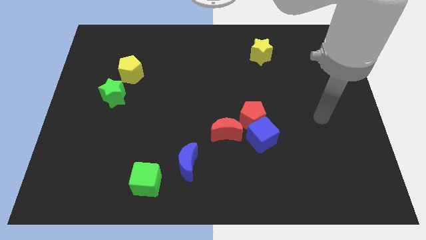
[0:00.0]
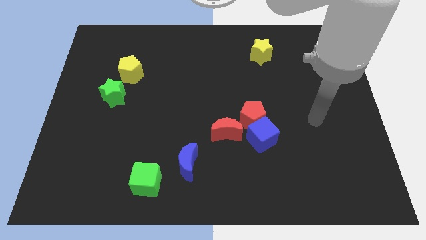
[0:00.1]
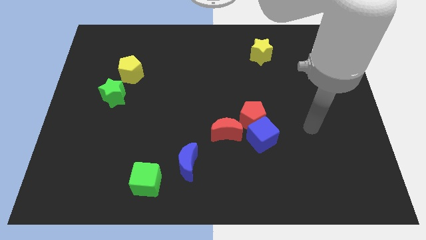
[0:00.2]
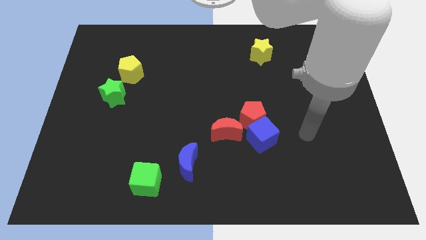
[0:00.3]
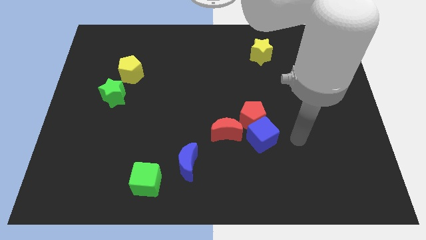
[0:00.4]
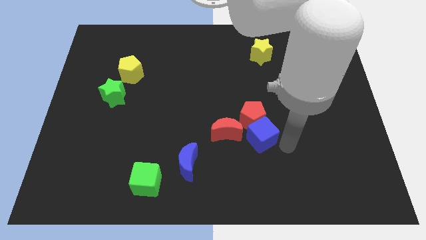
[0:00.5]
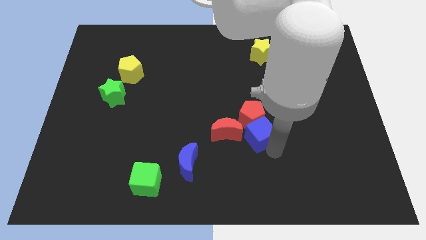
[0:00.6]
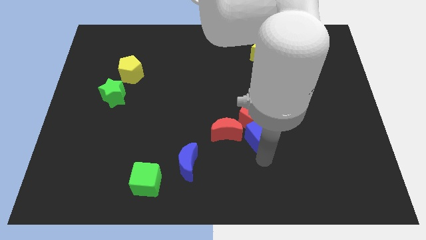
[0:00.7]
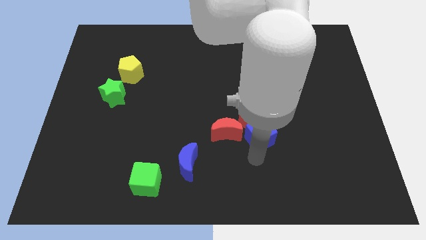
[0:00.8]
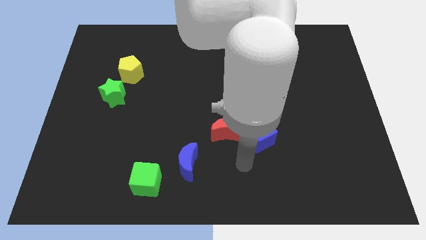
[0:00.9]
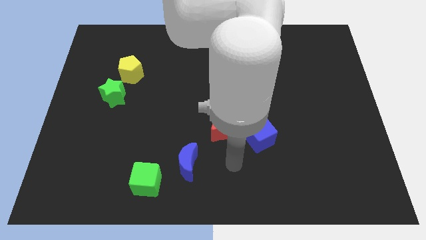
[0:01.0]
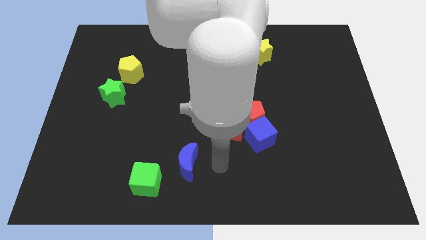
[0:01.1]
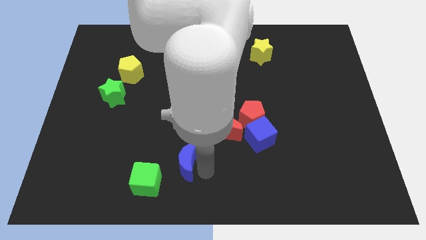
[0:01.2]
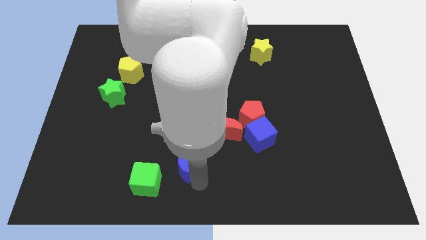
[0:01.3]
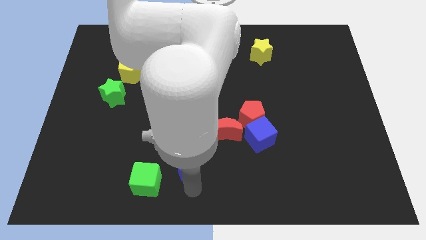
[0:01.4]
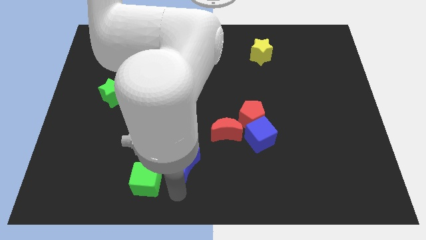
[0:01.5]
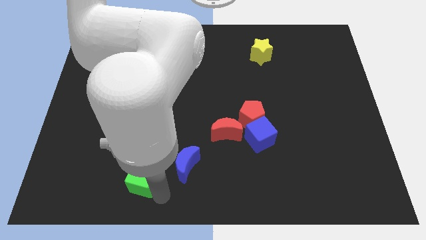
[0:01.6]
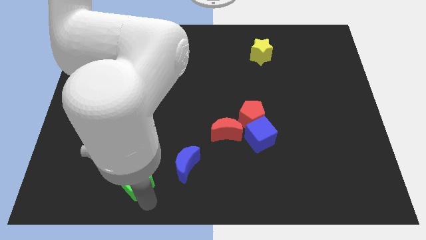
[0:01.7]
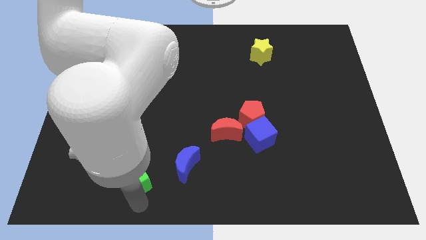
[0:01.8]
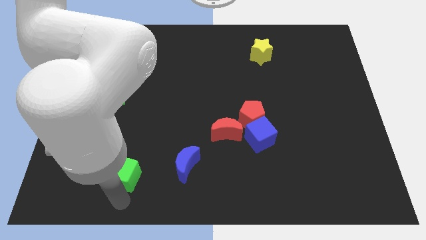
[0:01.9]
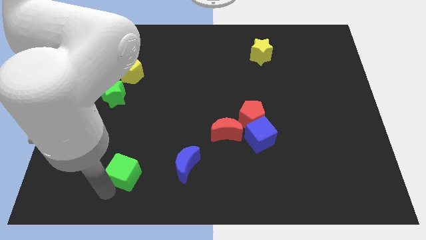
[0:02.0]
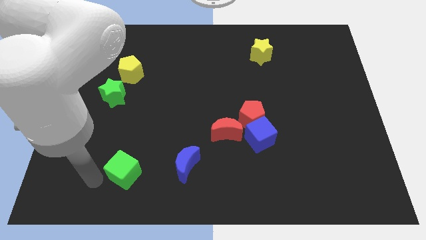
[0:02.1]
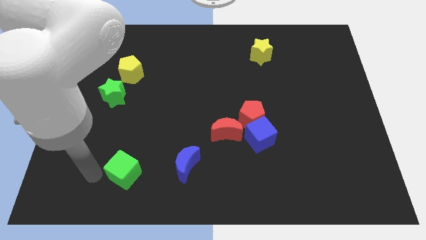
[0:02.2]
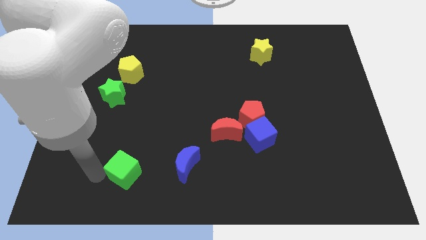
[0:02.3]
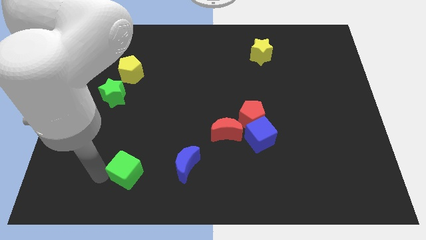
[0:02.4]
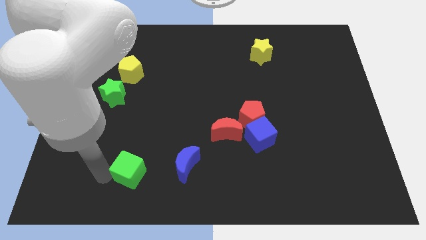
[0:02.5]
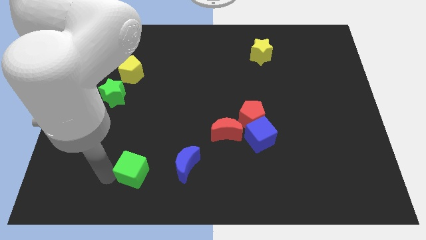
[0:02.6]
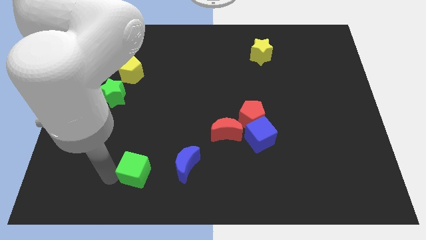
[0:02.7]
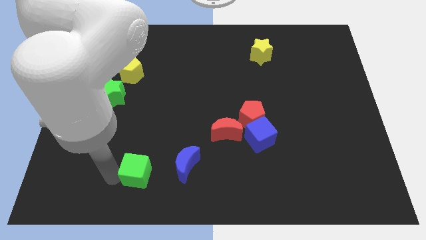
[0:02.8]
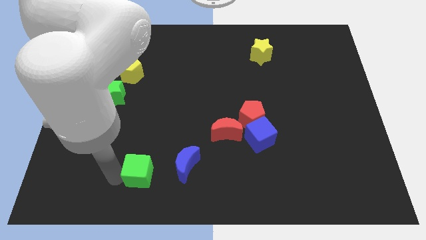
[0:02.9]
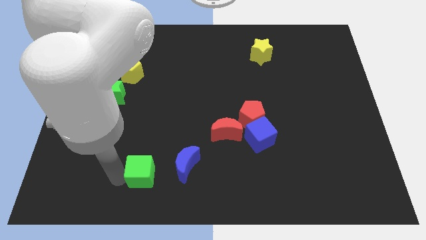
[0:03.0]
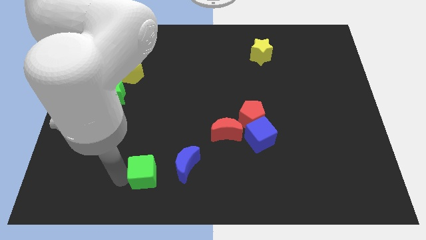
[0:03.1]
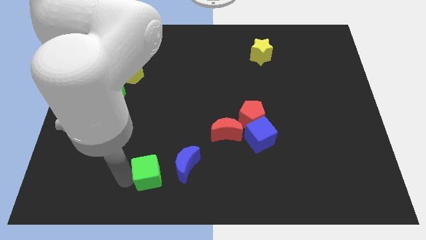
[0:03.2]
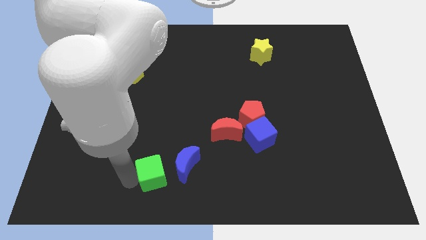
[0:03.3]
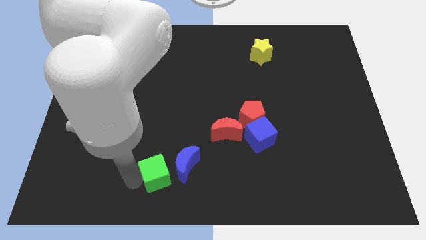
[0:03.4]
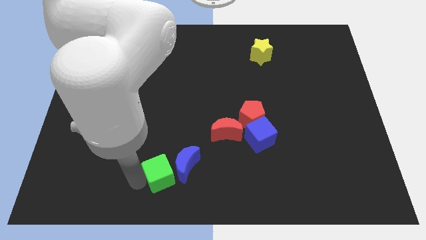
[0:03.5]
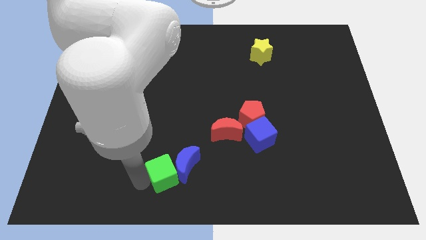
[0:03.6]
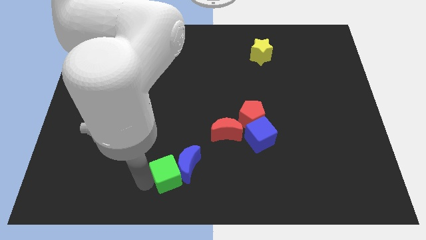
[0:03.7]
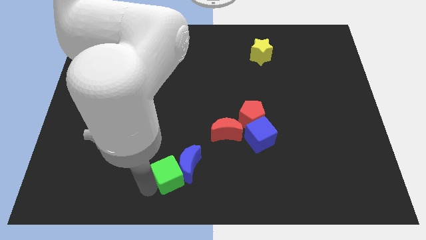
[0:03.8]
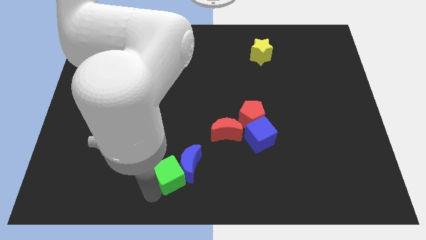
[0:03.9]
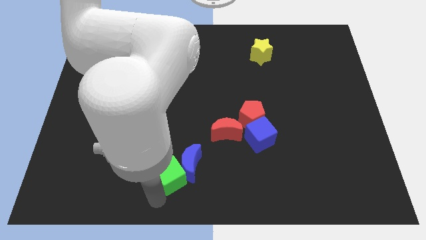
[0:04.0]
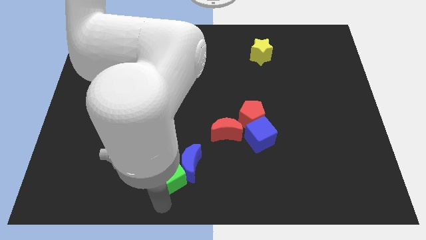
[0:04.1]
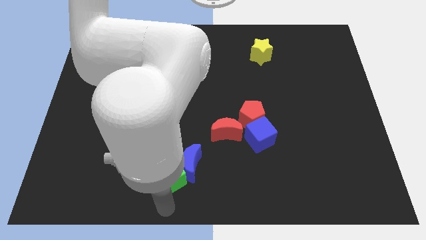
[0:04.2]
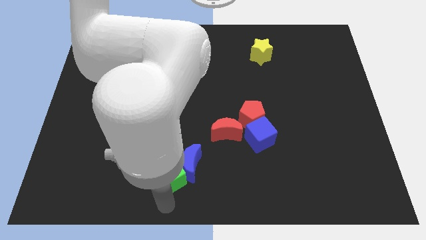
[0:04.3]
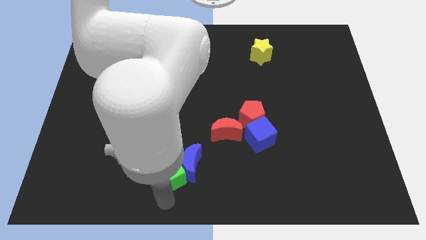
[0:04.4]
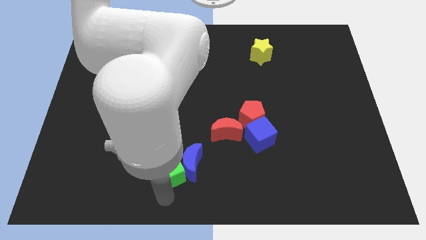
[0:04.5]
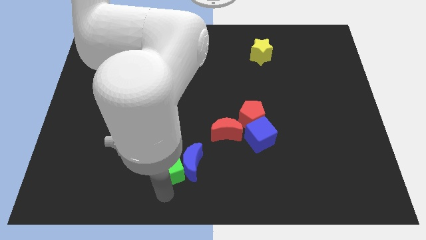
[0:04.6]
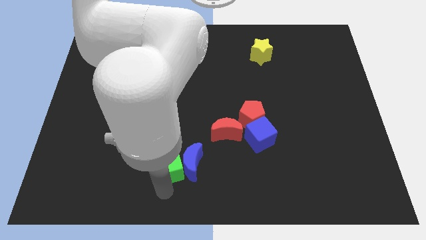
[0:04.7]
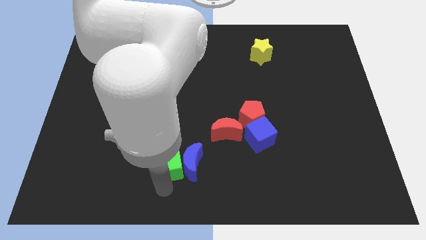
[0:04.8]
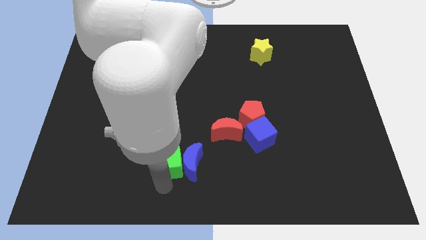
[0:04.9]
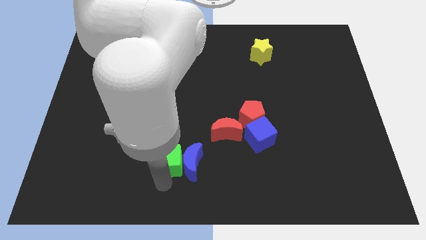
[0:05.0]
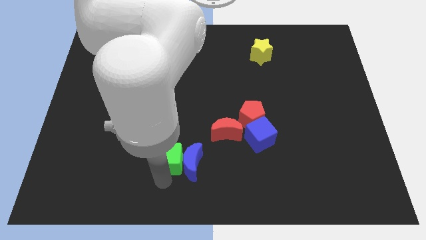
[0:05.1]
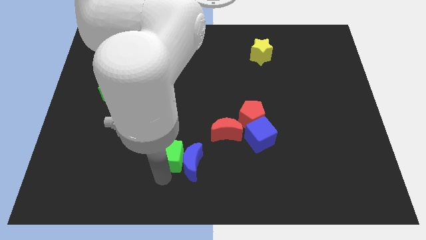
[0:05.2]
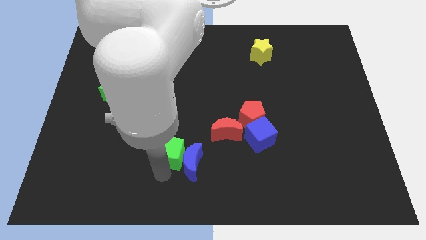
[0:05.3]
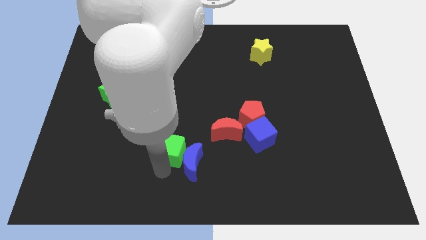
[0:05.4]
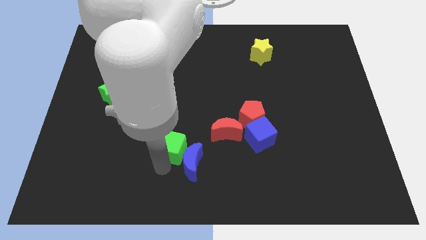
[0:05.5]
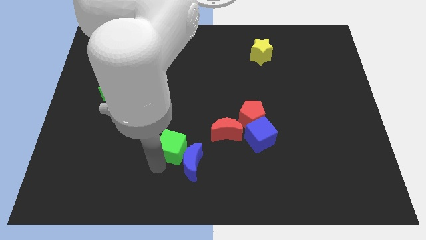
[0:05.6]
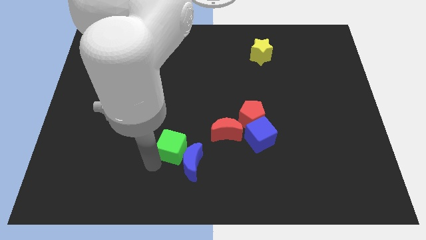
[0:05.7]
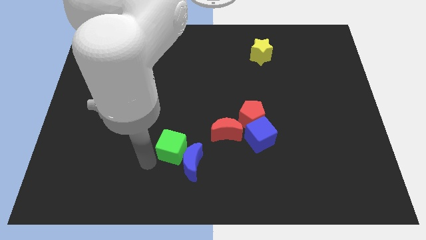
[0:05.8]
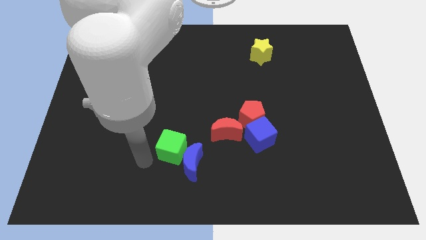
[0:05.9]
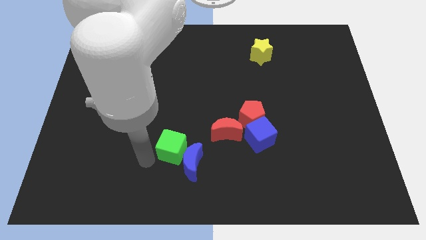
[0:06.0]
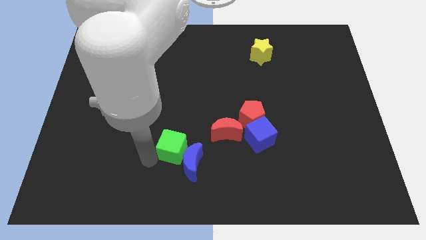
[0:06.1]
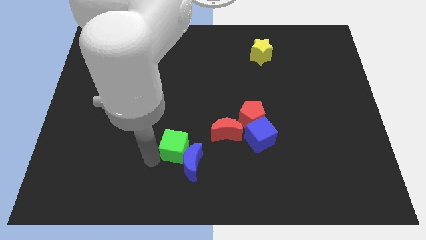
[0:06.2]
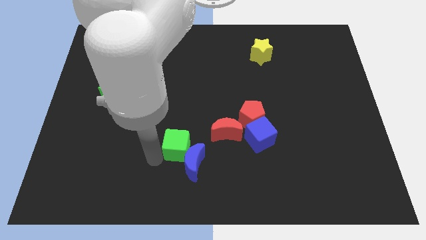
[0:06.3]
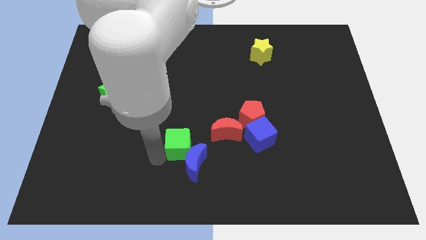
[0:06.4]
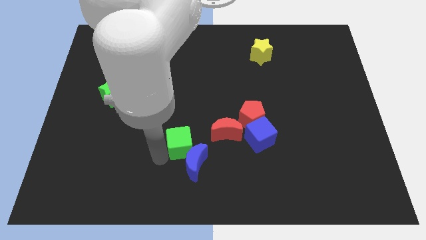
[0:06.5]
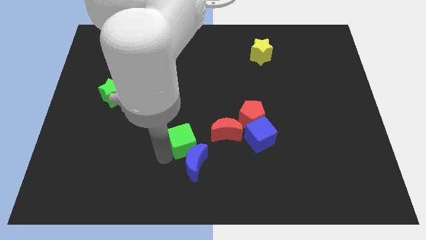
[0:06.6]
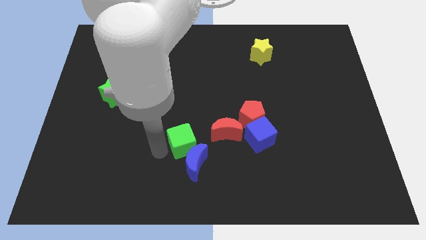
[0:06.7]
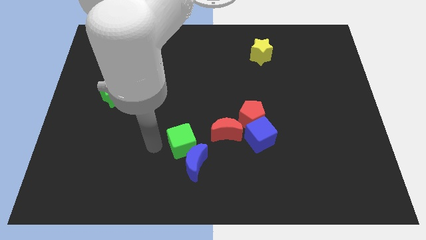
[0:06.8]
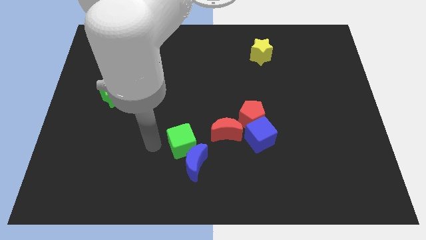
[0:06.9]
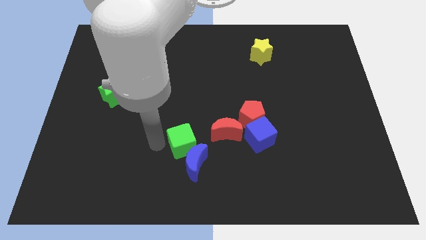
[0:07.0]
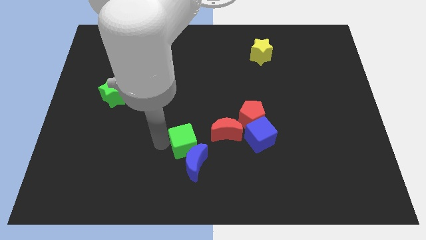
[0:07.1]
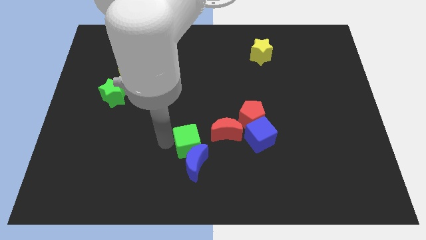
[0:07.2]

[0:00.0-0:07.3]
move the green cube diagonally up and to the right of the blue moon

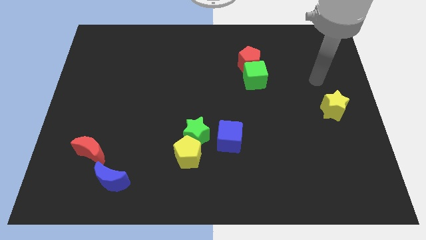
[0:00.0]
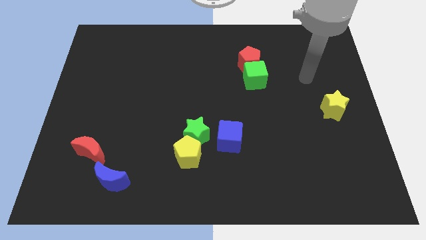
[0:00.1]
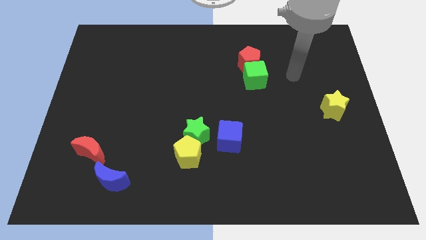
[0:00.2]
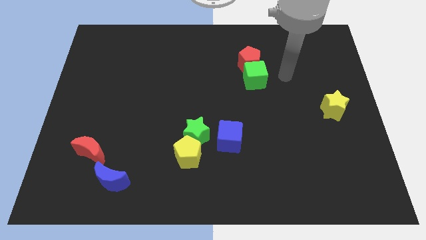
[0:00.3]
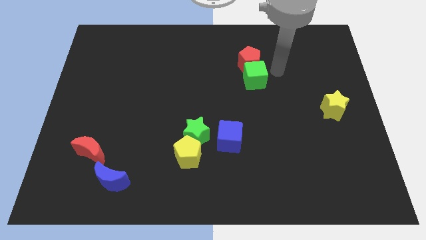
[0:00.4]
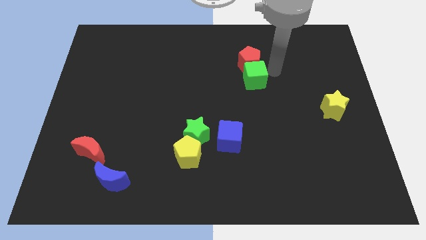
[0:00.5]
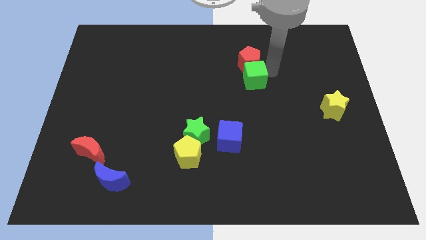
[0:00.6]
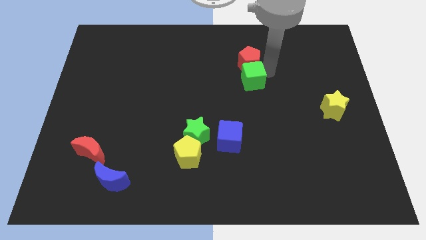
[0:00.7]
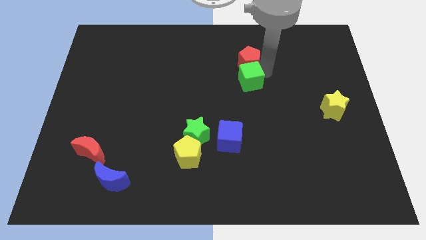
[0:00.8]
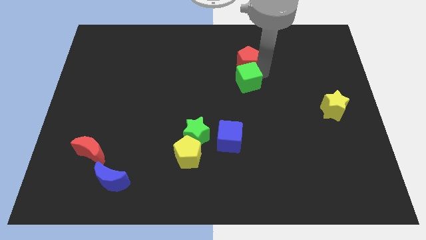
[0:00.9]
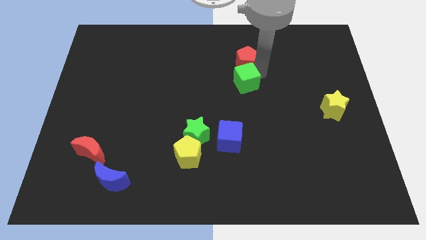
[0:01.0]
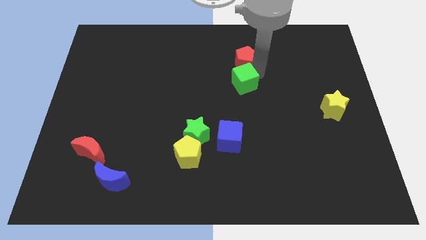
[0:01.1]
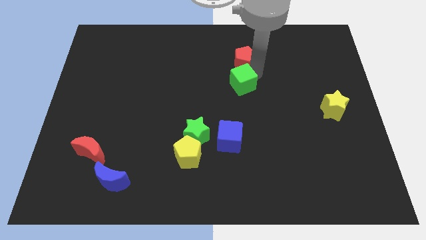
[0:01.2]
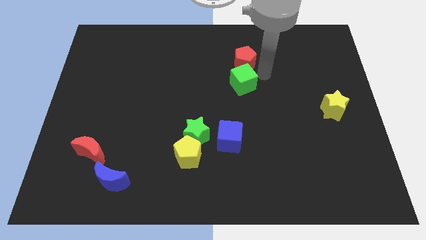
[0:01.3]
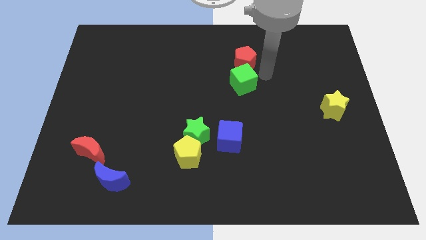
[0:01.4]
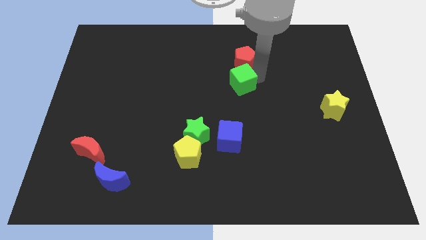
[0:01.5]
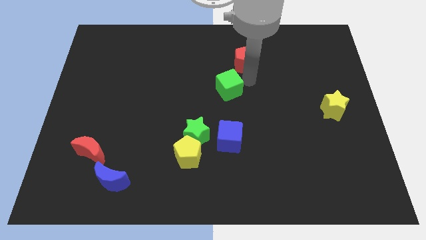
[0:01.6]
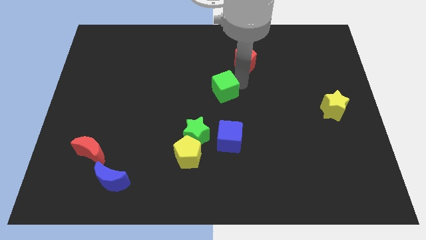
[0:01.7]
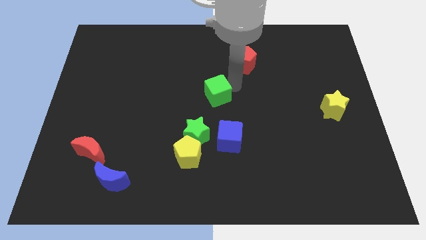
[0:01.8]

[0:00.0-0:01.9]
put the green cube above the green star
